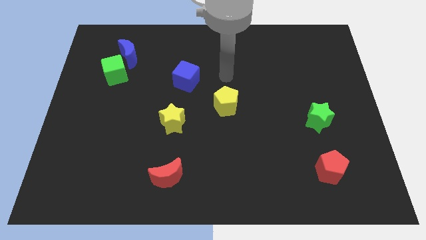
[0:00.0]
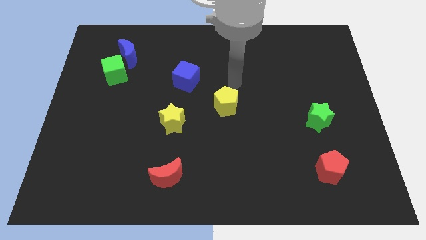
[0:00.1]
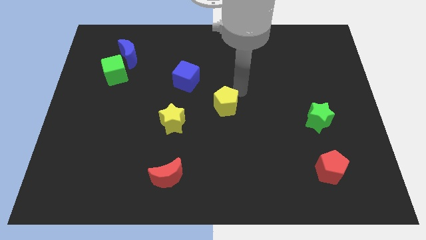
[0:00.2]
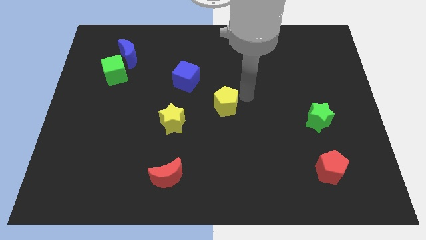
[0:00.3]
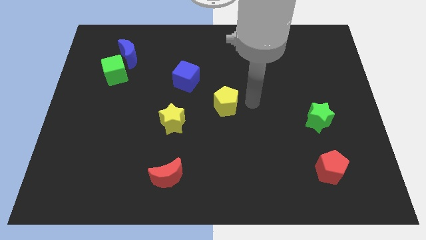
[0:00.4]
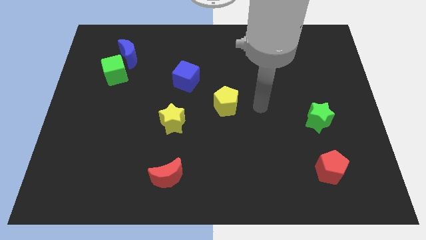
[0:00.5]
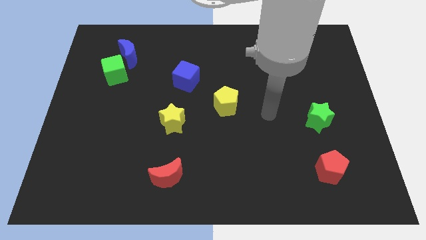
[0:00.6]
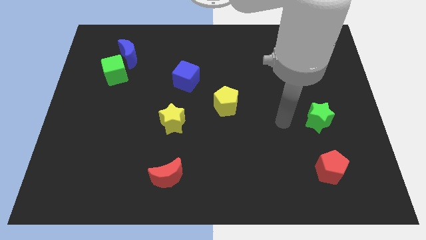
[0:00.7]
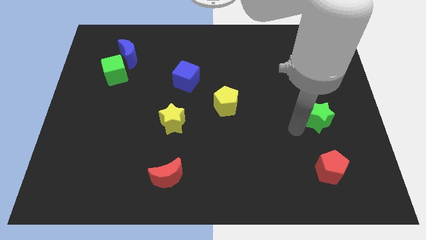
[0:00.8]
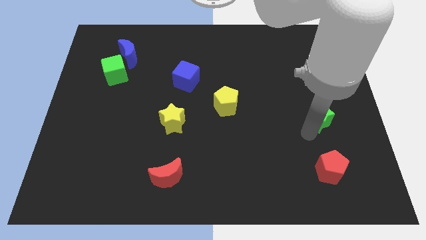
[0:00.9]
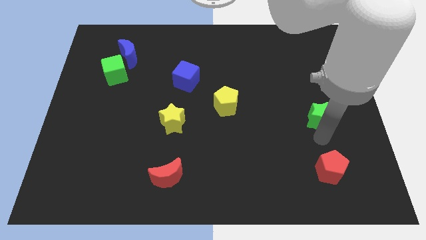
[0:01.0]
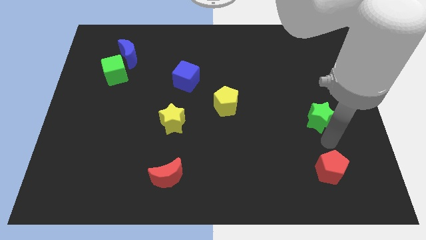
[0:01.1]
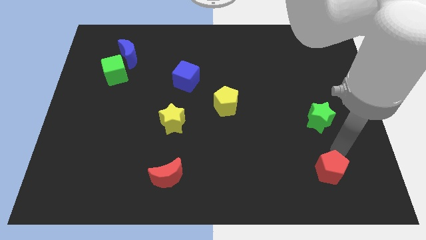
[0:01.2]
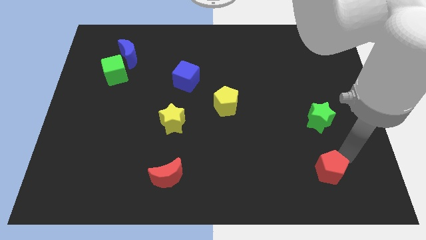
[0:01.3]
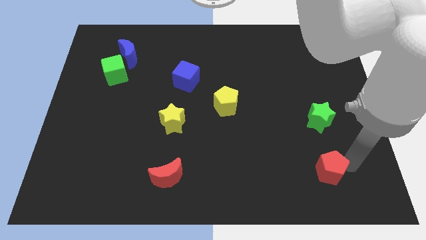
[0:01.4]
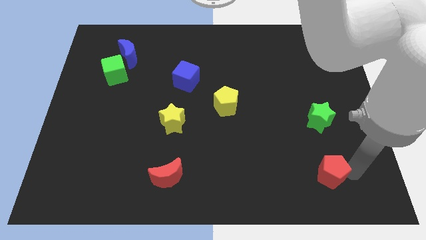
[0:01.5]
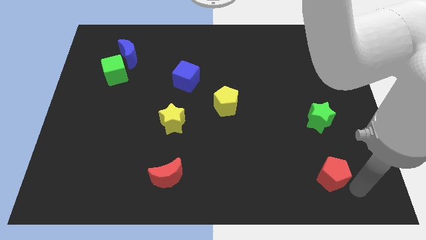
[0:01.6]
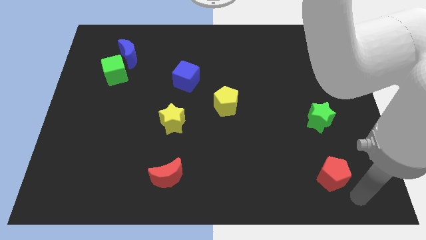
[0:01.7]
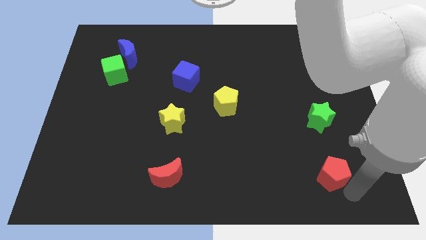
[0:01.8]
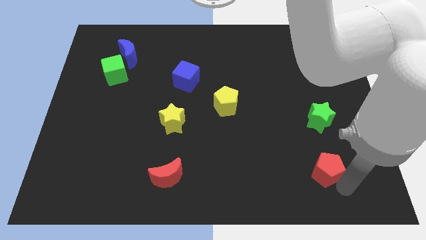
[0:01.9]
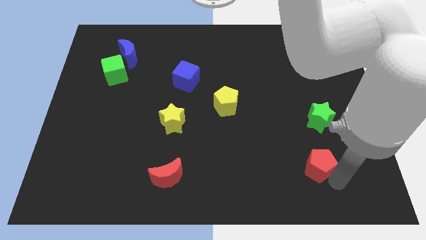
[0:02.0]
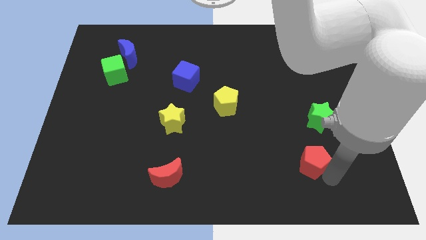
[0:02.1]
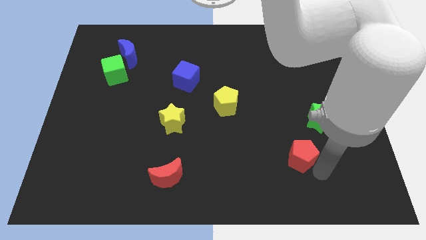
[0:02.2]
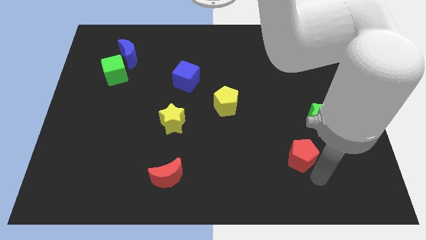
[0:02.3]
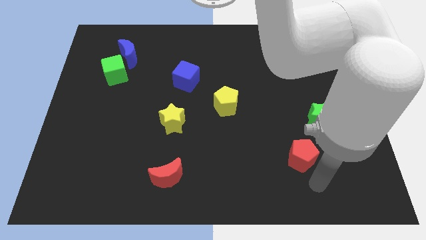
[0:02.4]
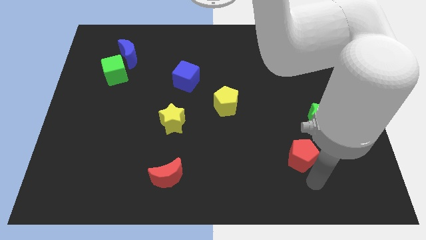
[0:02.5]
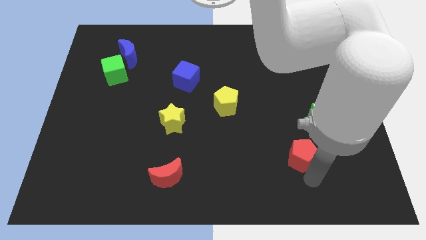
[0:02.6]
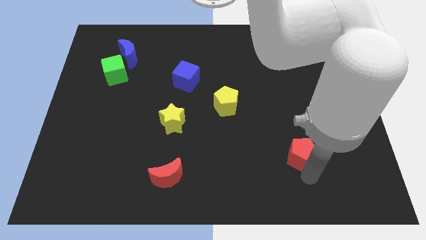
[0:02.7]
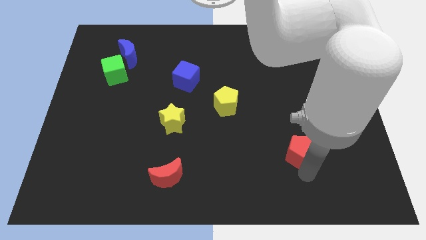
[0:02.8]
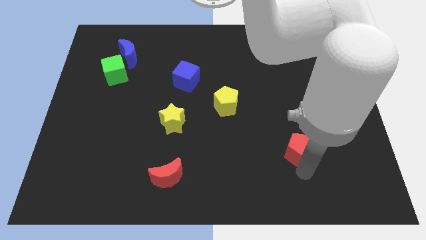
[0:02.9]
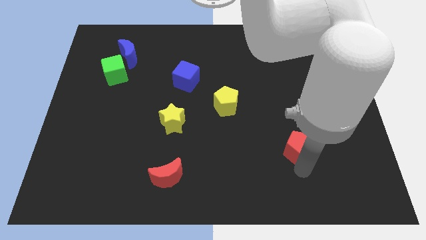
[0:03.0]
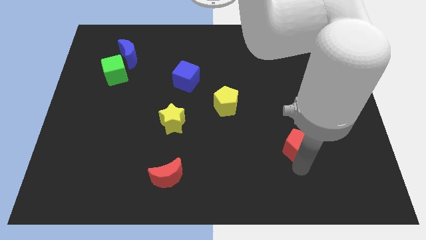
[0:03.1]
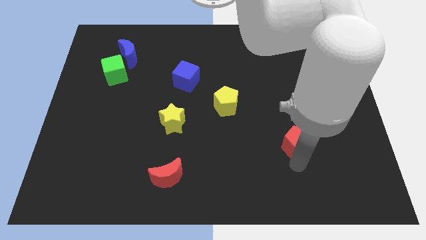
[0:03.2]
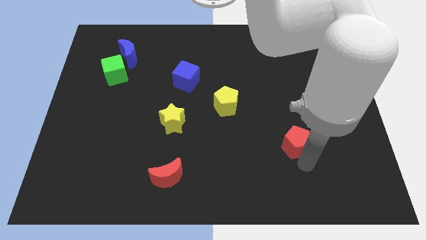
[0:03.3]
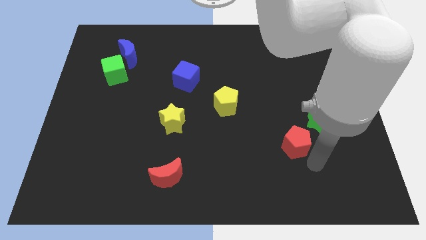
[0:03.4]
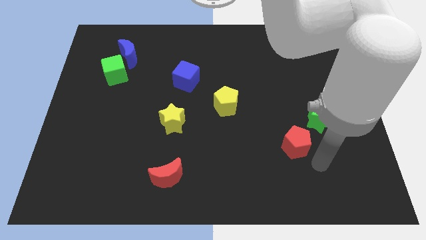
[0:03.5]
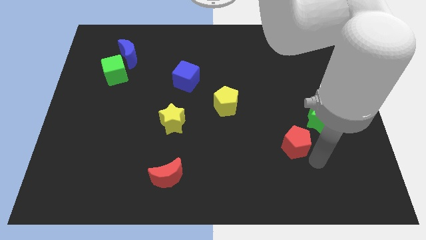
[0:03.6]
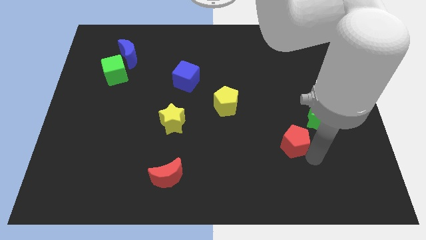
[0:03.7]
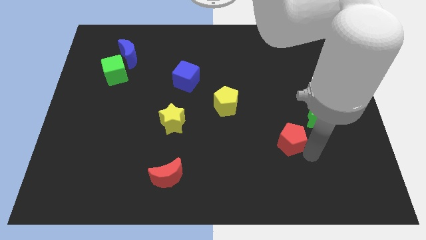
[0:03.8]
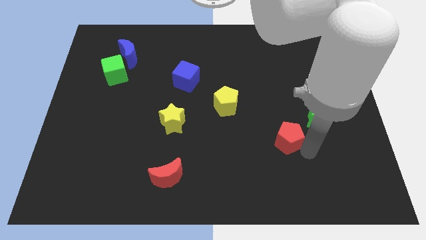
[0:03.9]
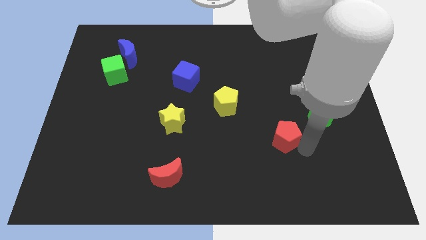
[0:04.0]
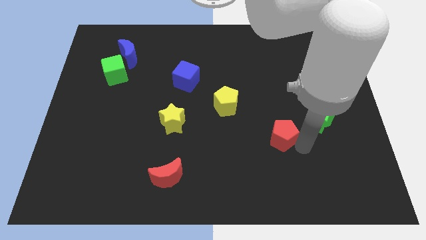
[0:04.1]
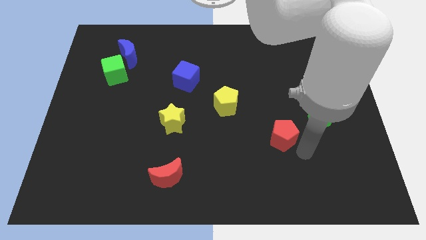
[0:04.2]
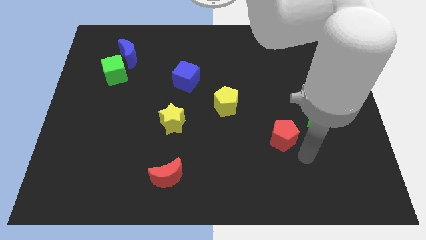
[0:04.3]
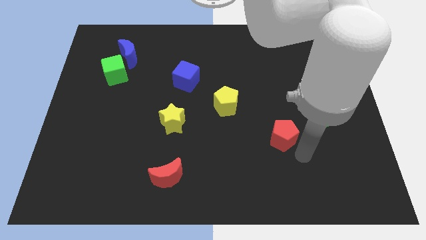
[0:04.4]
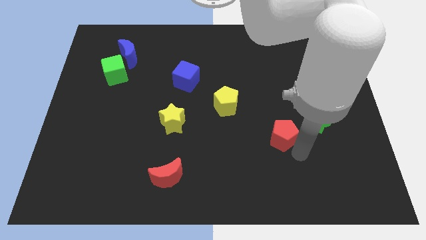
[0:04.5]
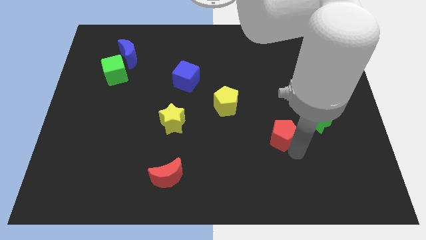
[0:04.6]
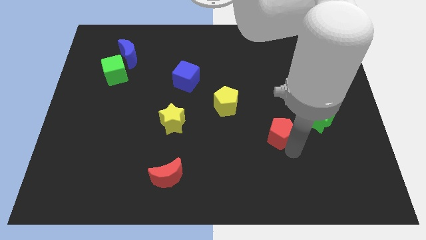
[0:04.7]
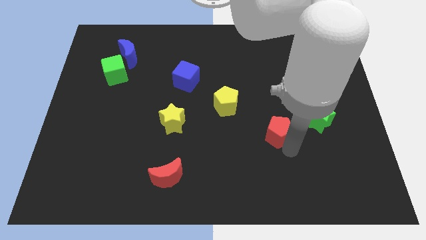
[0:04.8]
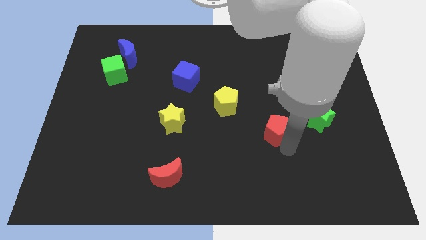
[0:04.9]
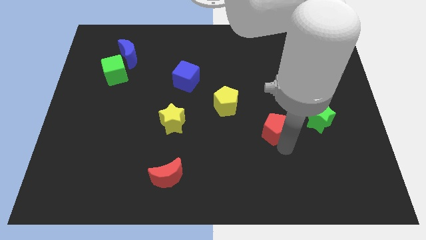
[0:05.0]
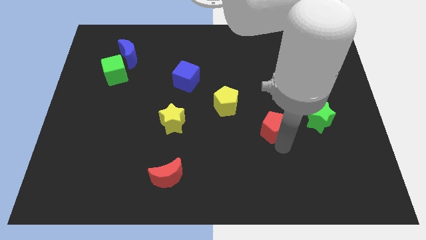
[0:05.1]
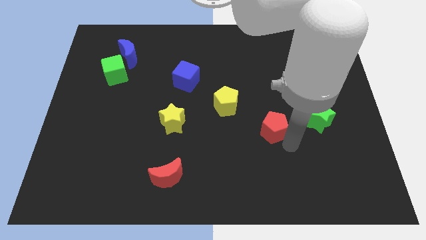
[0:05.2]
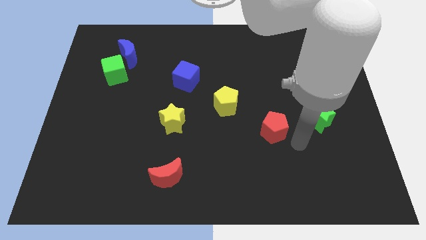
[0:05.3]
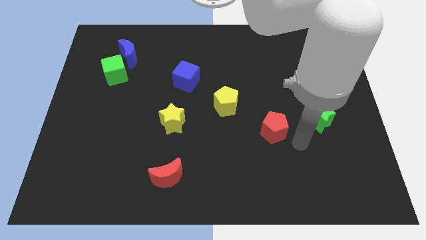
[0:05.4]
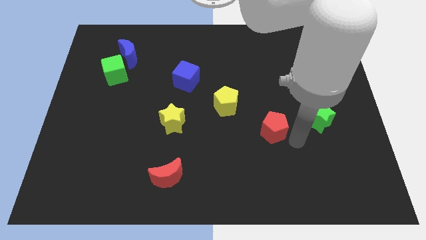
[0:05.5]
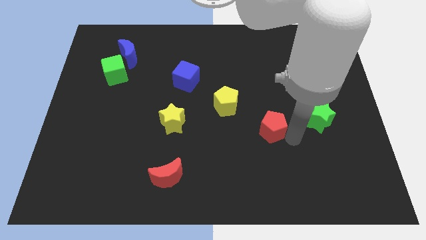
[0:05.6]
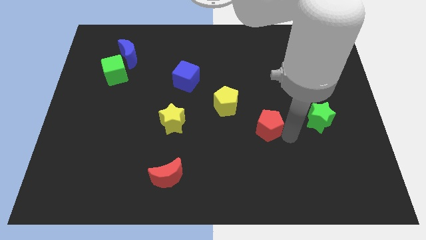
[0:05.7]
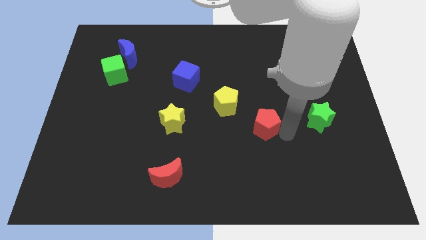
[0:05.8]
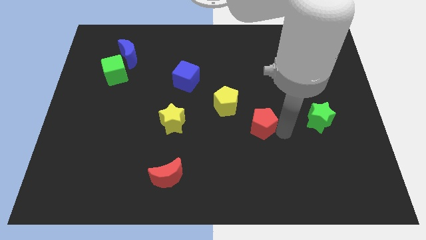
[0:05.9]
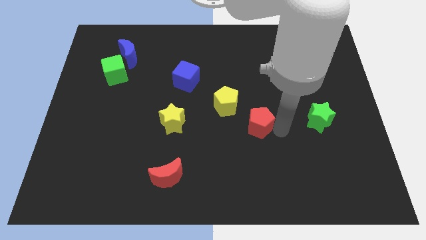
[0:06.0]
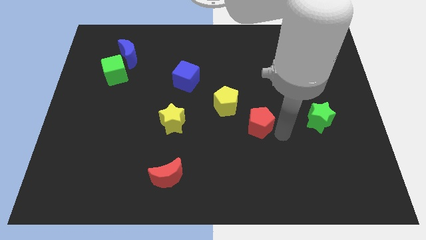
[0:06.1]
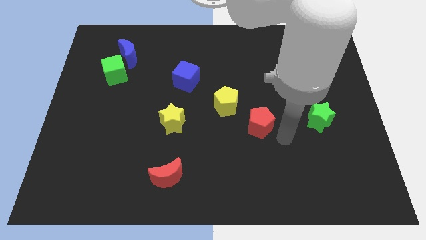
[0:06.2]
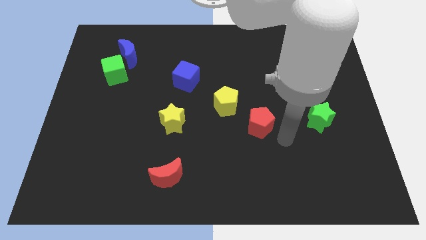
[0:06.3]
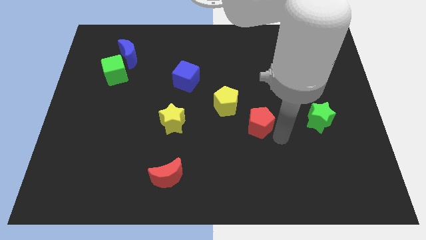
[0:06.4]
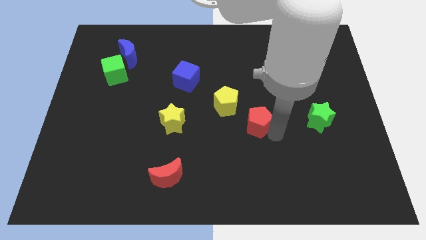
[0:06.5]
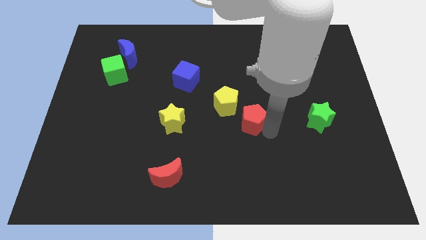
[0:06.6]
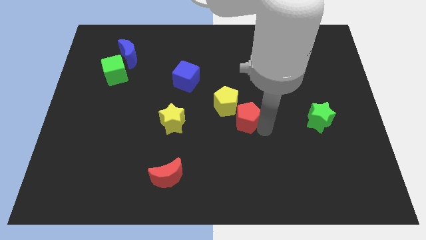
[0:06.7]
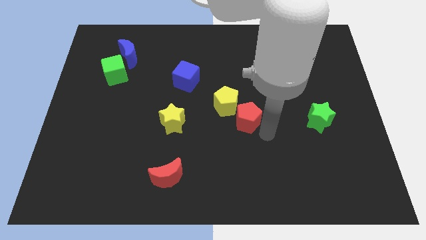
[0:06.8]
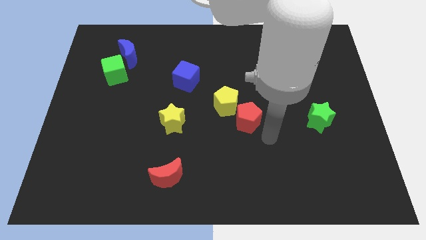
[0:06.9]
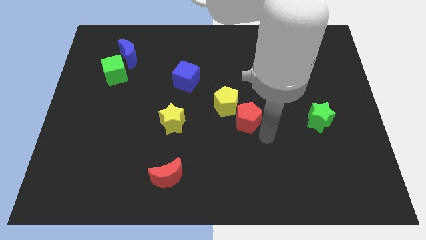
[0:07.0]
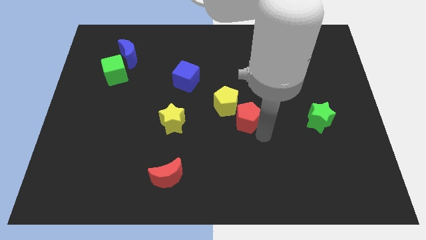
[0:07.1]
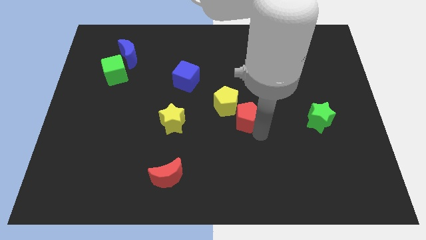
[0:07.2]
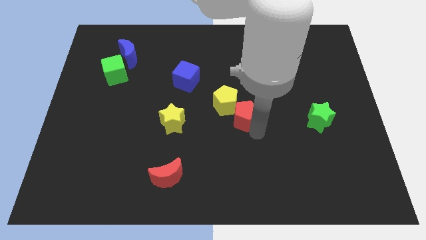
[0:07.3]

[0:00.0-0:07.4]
put the red pentagon towards the yellow pentagon

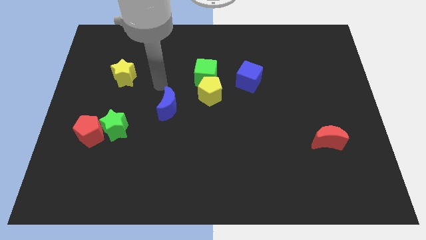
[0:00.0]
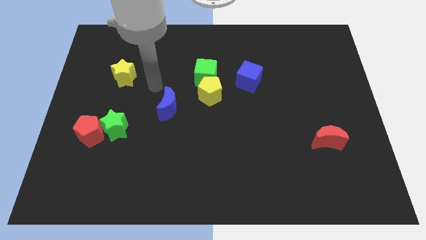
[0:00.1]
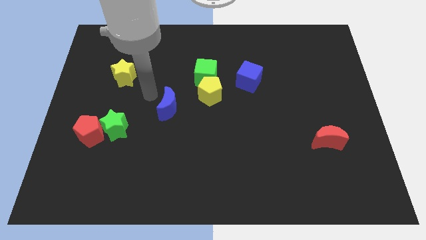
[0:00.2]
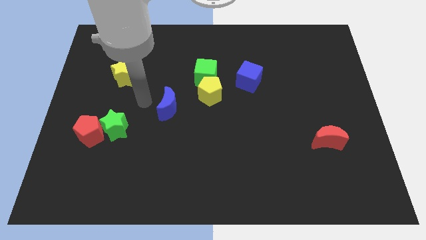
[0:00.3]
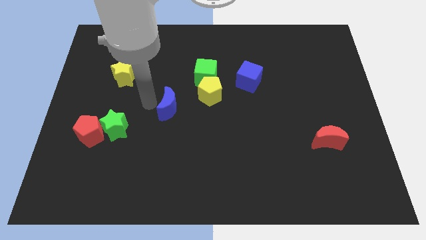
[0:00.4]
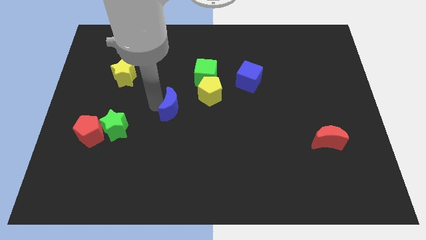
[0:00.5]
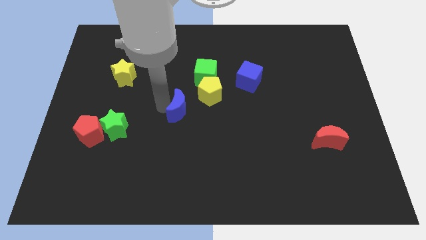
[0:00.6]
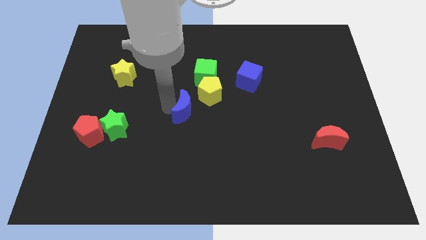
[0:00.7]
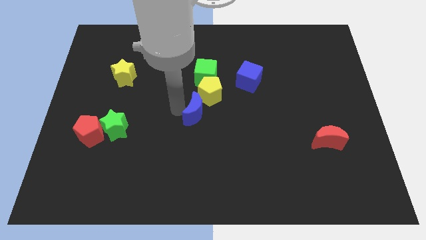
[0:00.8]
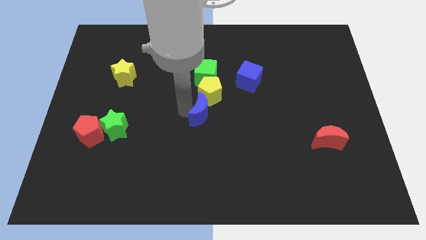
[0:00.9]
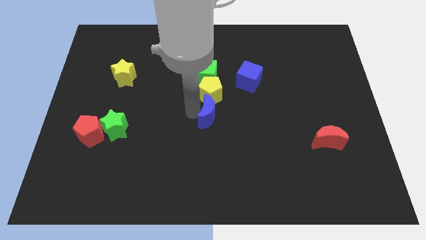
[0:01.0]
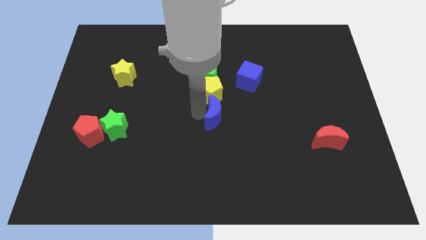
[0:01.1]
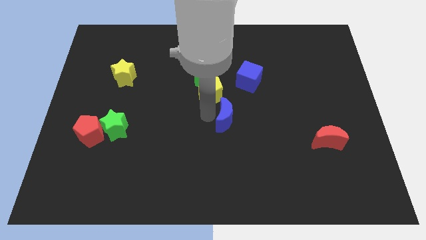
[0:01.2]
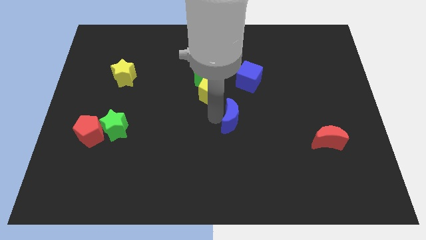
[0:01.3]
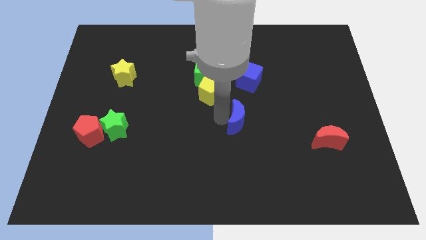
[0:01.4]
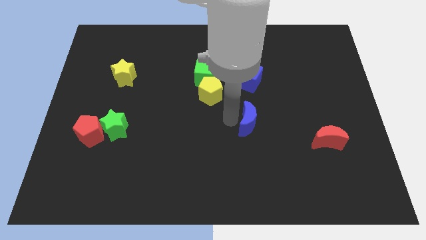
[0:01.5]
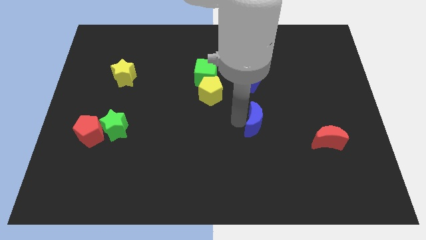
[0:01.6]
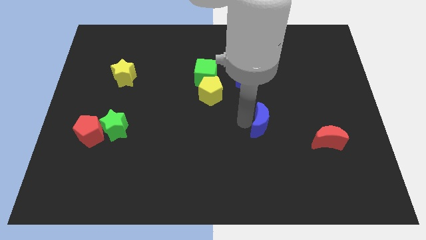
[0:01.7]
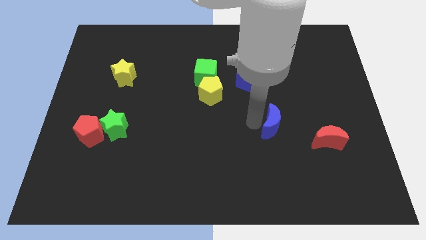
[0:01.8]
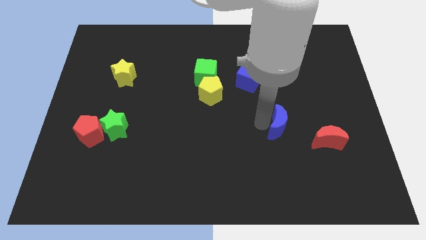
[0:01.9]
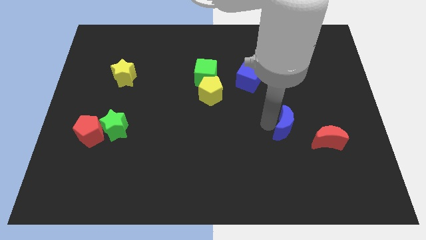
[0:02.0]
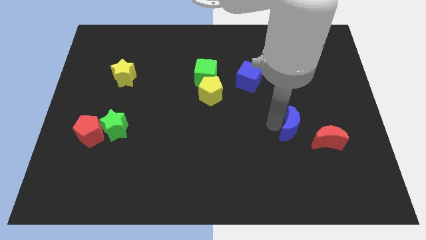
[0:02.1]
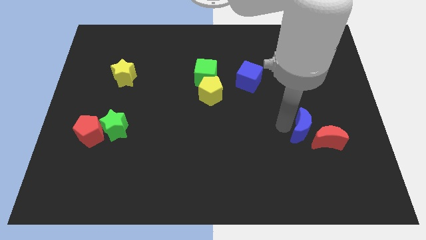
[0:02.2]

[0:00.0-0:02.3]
put the blue moon to the red moon
